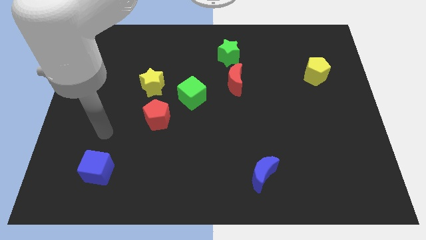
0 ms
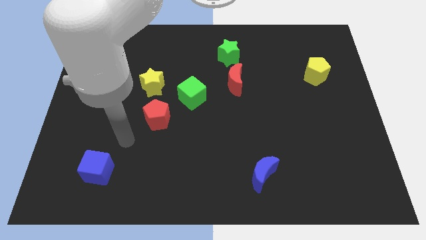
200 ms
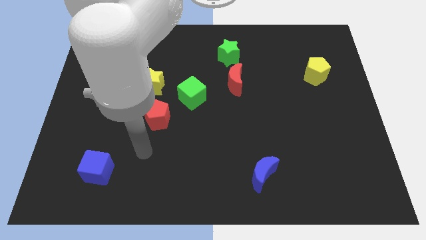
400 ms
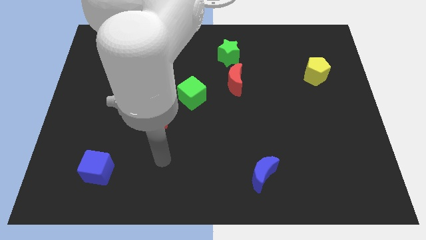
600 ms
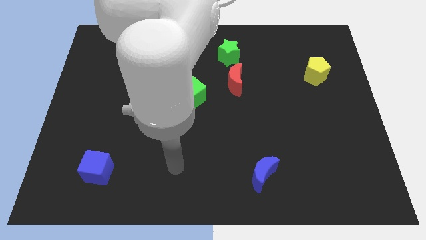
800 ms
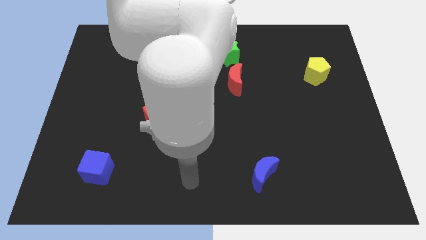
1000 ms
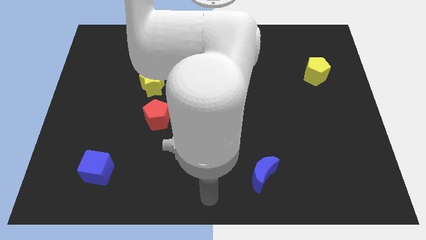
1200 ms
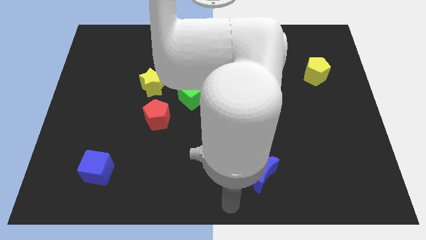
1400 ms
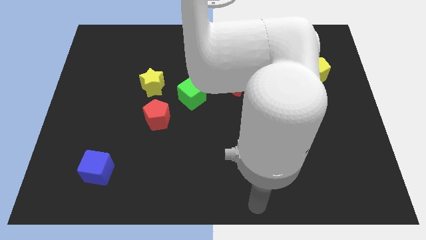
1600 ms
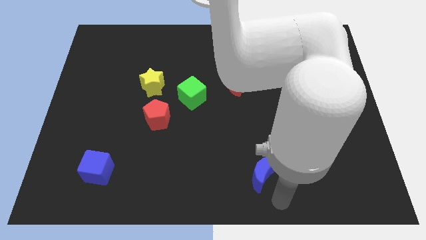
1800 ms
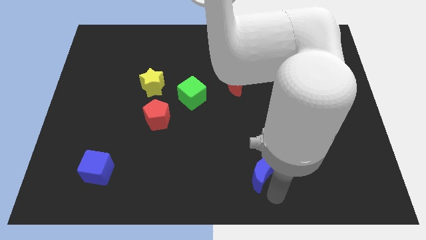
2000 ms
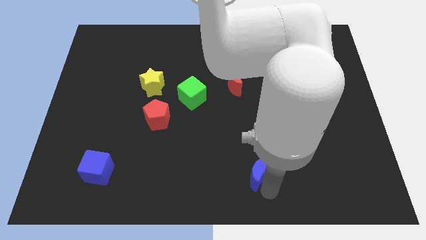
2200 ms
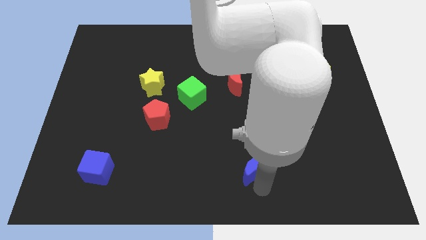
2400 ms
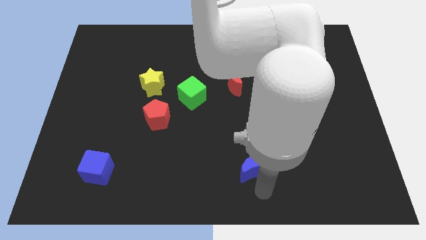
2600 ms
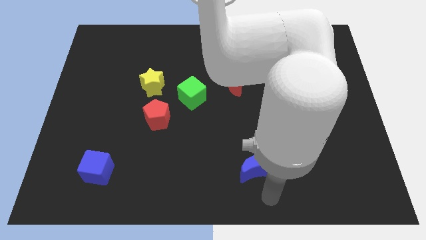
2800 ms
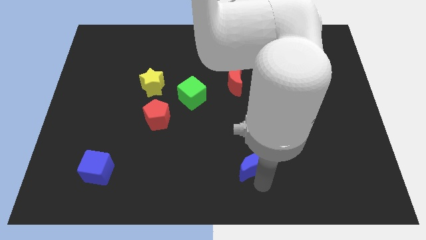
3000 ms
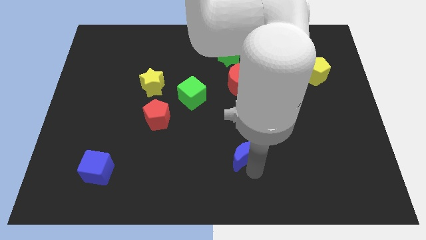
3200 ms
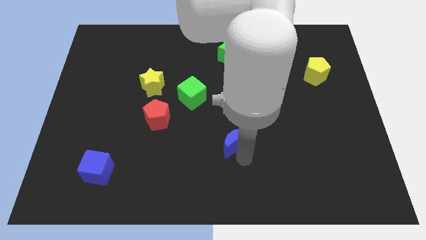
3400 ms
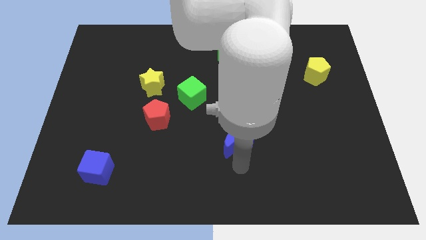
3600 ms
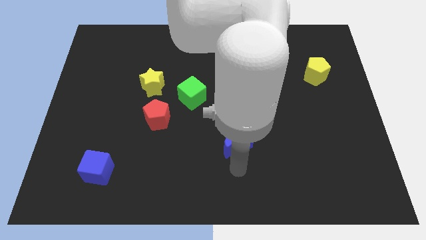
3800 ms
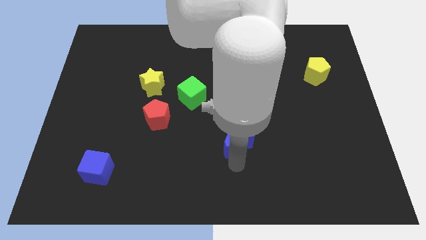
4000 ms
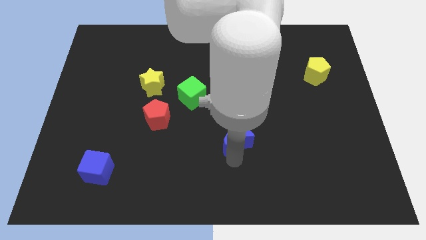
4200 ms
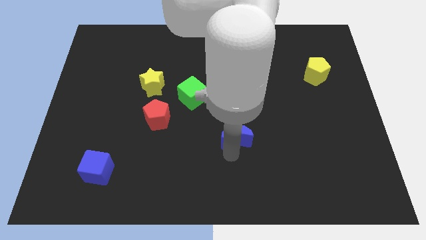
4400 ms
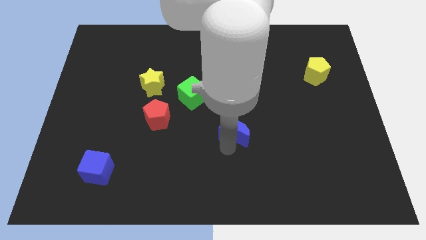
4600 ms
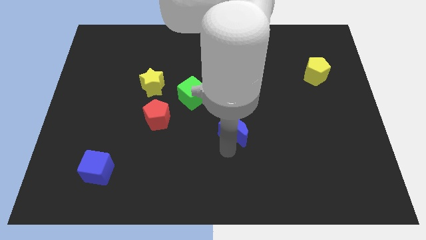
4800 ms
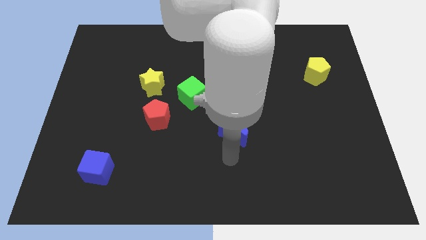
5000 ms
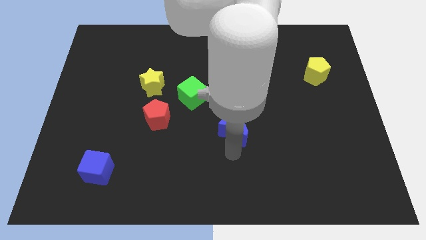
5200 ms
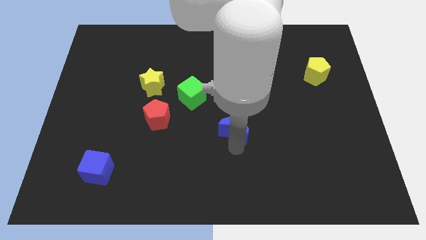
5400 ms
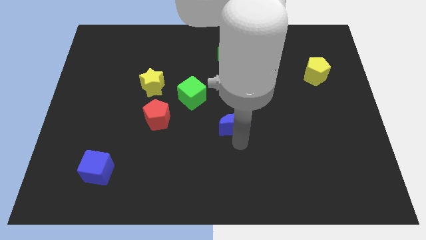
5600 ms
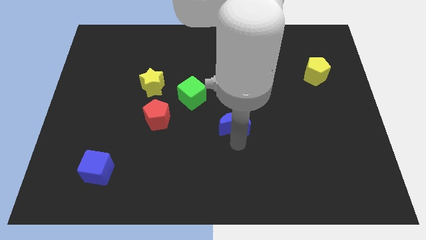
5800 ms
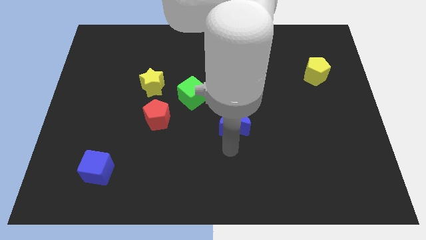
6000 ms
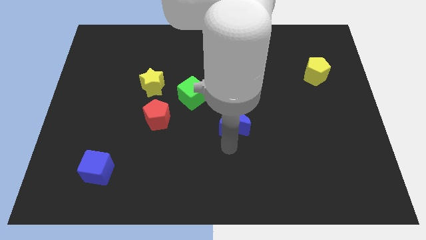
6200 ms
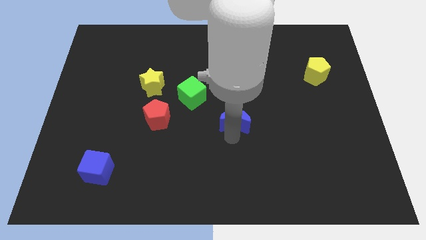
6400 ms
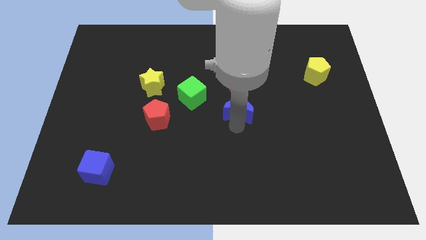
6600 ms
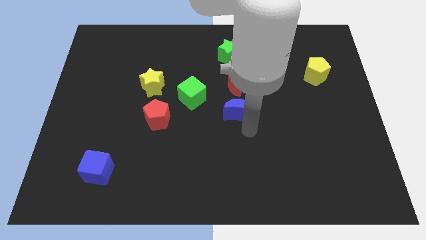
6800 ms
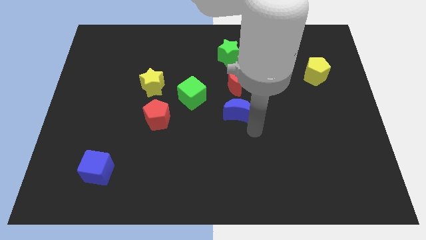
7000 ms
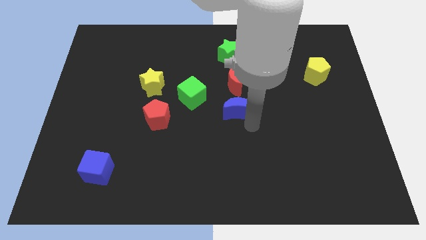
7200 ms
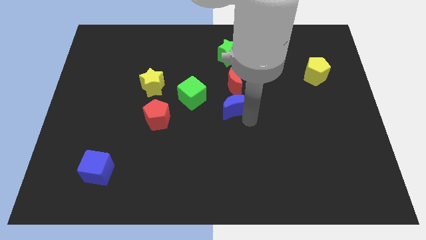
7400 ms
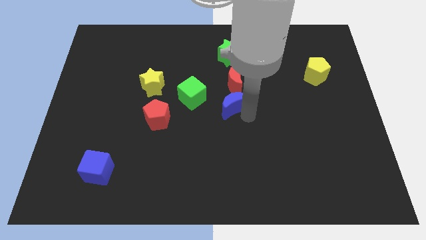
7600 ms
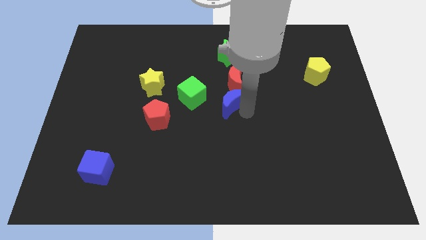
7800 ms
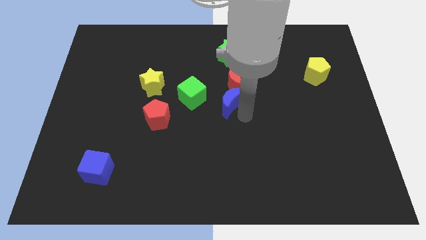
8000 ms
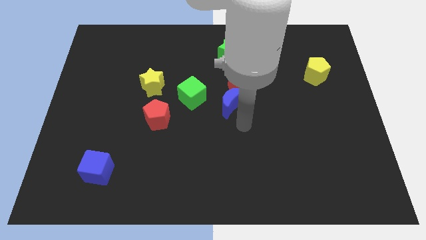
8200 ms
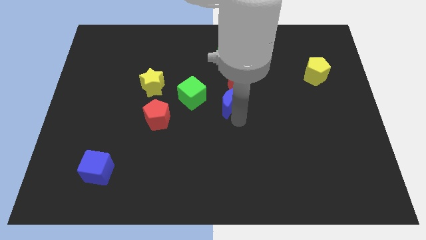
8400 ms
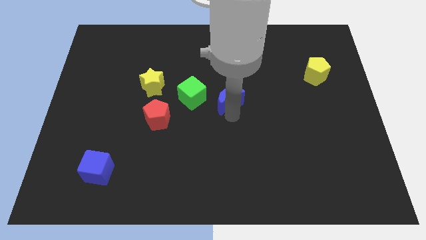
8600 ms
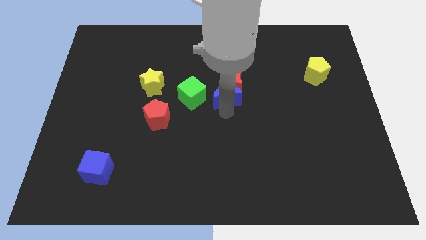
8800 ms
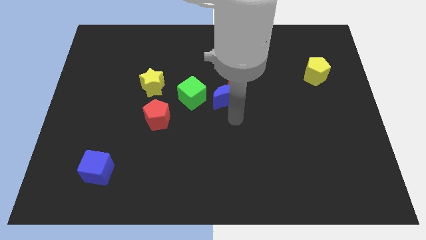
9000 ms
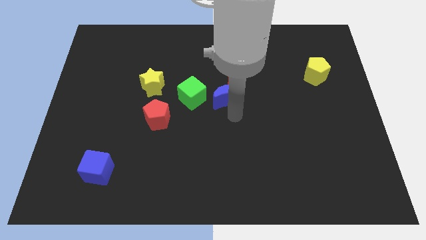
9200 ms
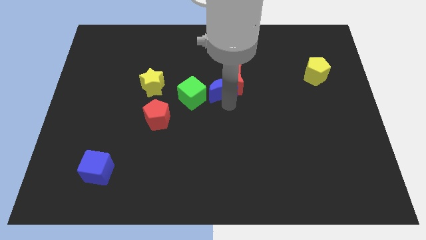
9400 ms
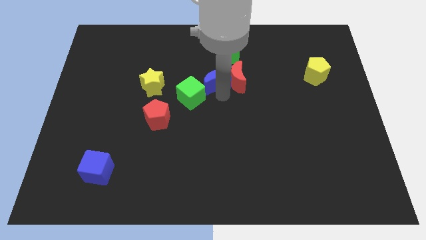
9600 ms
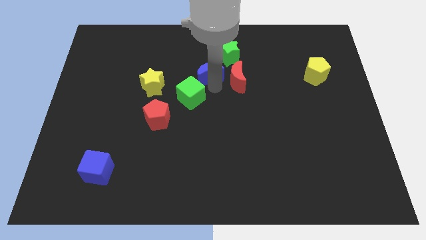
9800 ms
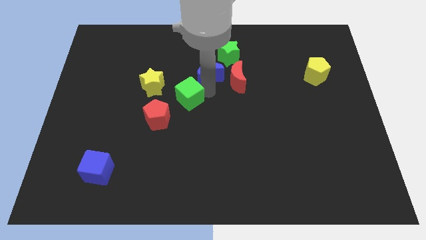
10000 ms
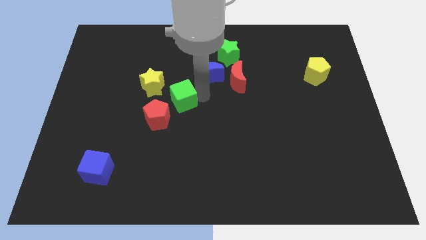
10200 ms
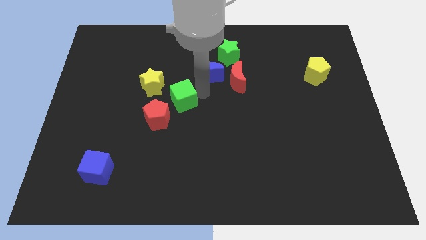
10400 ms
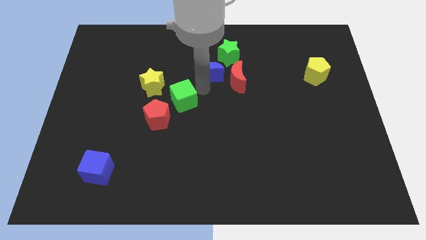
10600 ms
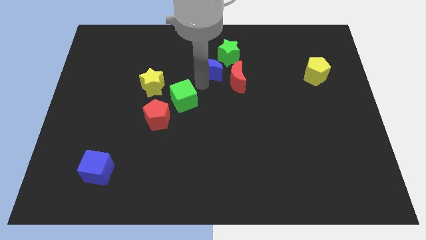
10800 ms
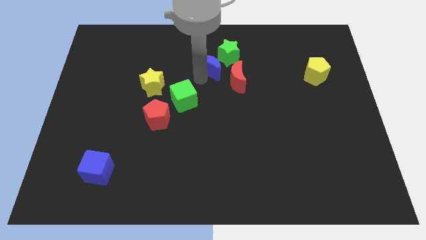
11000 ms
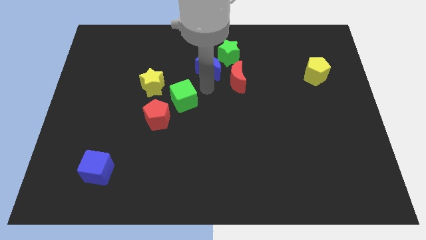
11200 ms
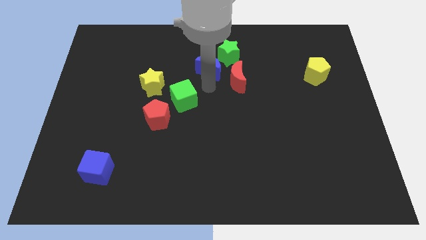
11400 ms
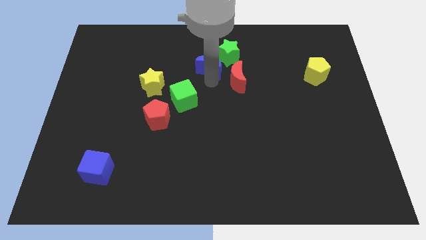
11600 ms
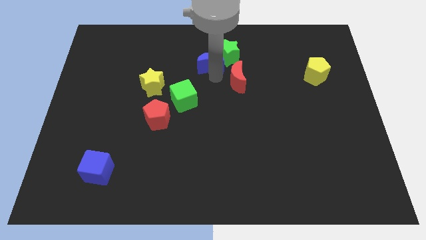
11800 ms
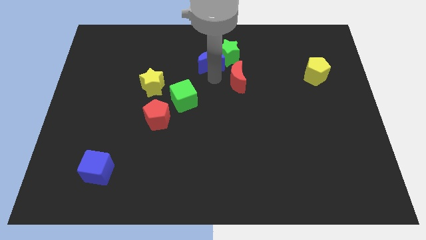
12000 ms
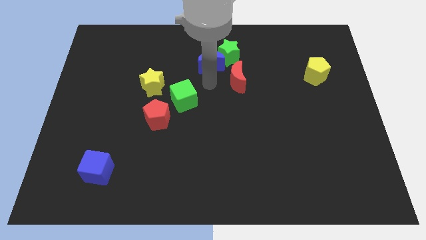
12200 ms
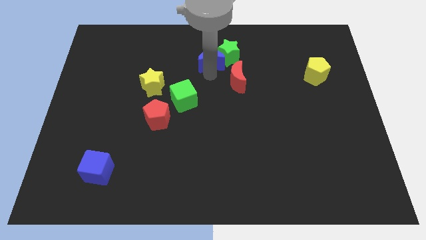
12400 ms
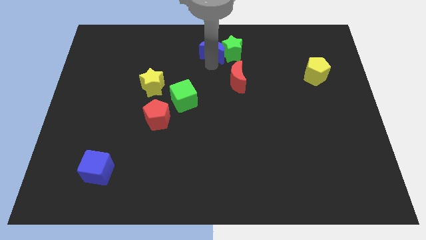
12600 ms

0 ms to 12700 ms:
move the blue moon to the towards your base
